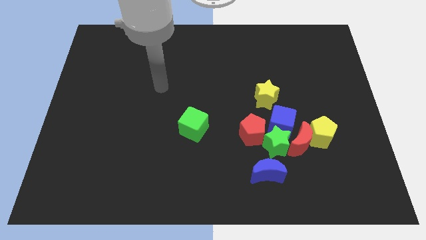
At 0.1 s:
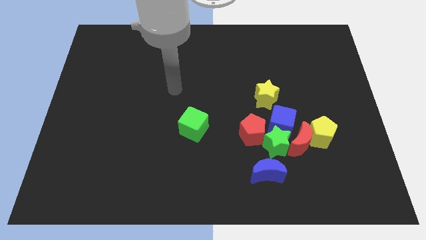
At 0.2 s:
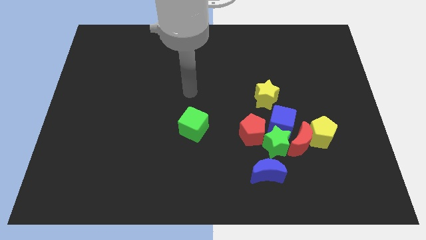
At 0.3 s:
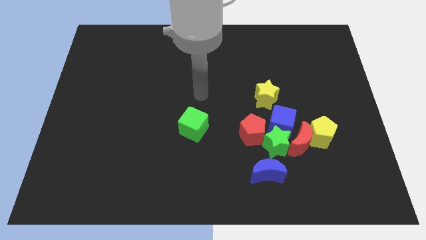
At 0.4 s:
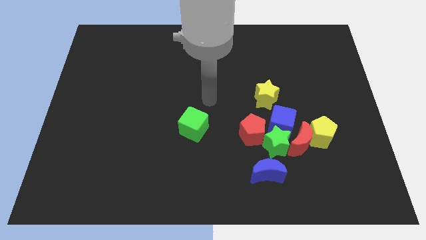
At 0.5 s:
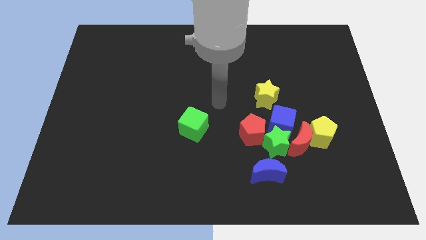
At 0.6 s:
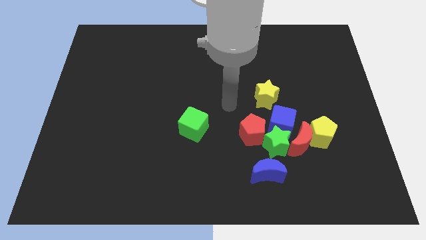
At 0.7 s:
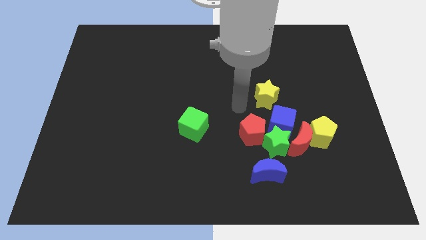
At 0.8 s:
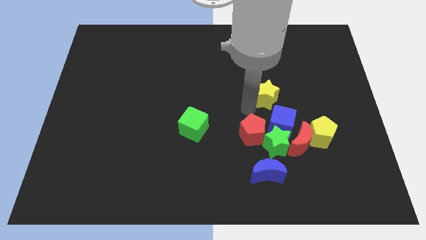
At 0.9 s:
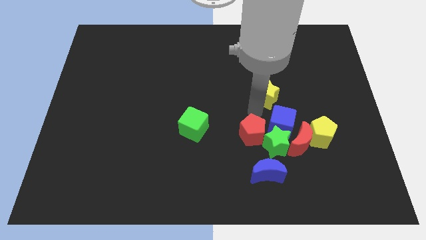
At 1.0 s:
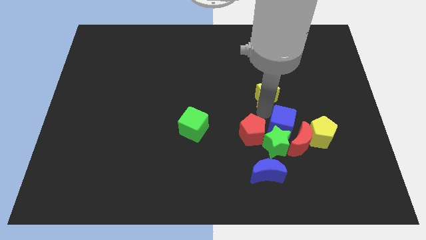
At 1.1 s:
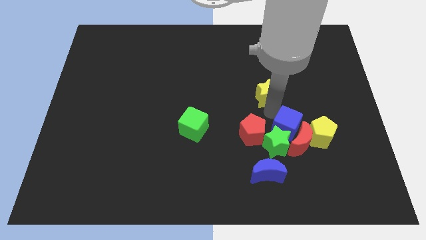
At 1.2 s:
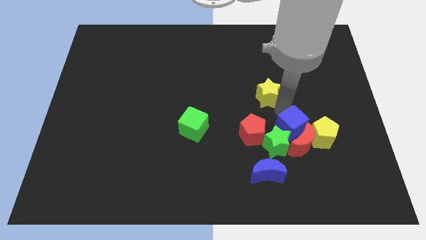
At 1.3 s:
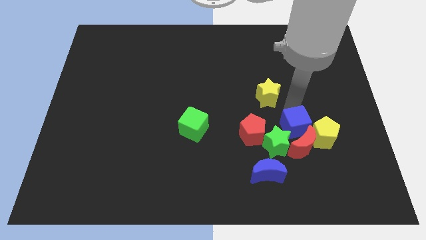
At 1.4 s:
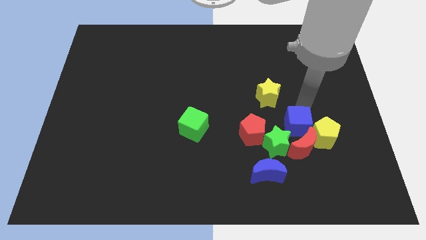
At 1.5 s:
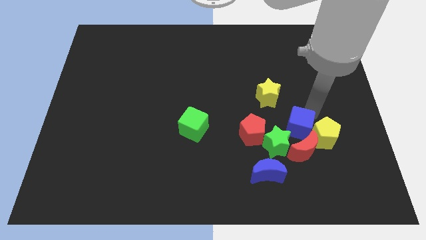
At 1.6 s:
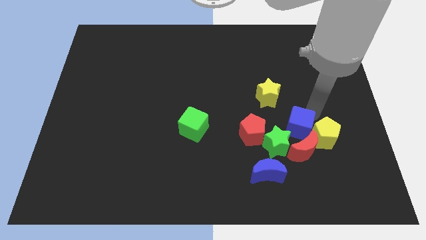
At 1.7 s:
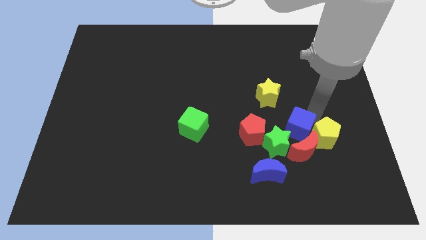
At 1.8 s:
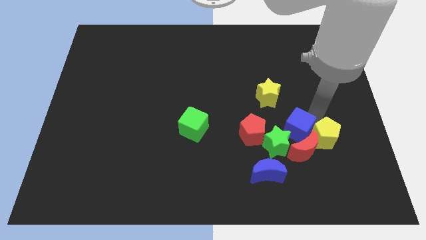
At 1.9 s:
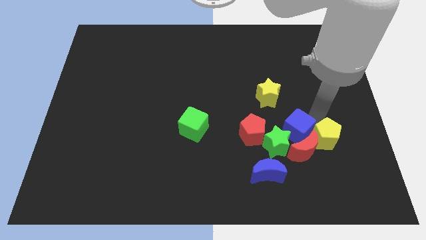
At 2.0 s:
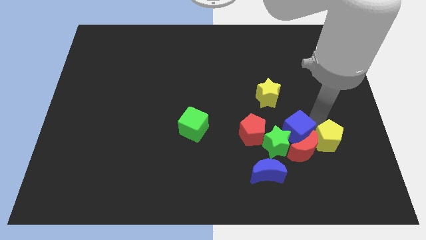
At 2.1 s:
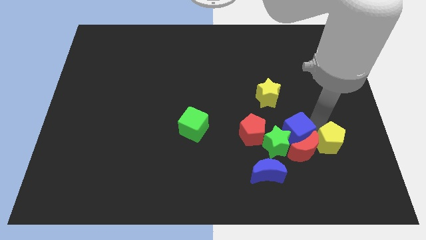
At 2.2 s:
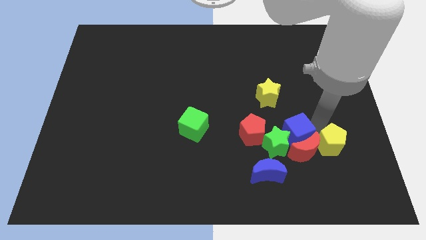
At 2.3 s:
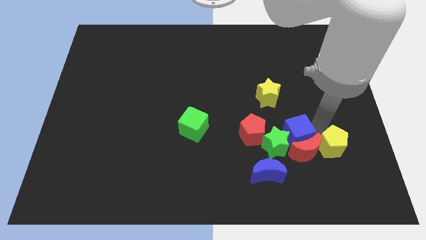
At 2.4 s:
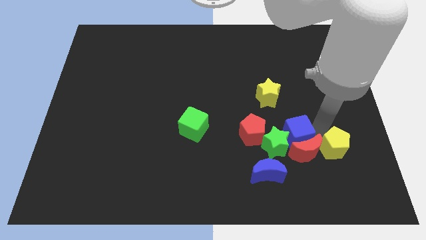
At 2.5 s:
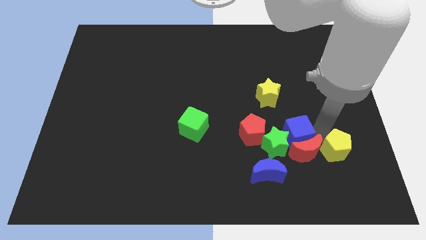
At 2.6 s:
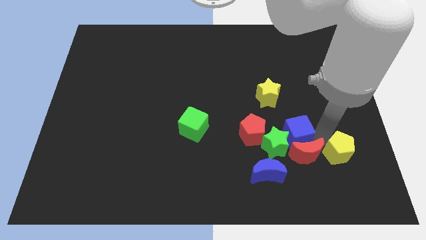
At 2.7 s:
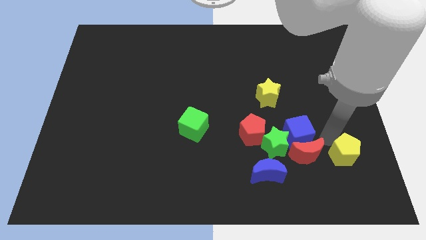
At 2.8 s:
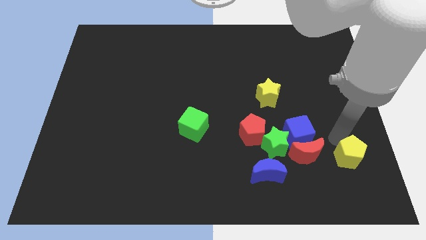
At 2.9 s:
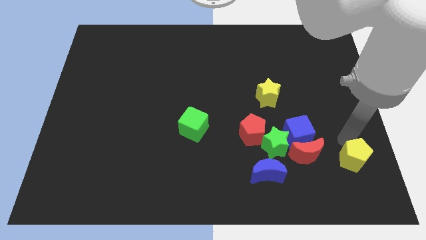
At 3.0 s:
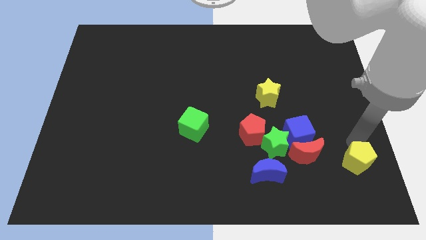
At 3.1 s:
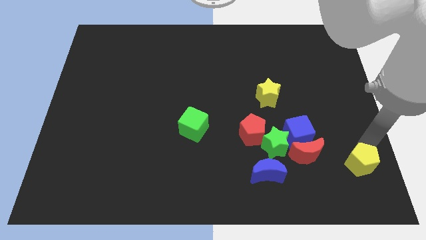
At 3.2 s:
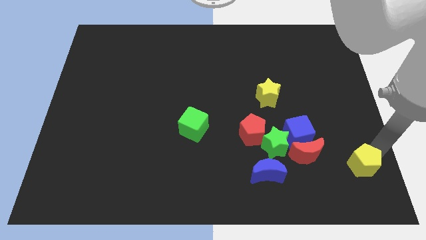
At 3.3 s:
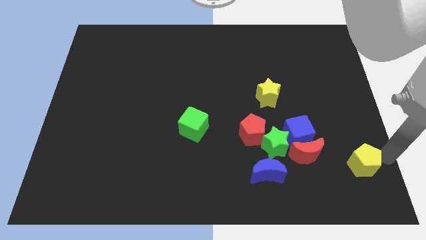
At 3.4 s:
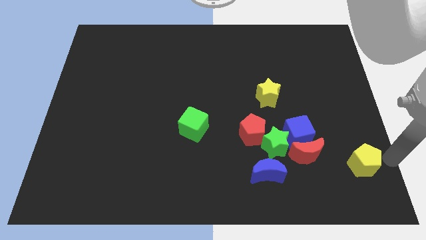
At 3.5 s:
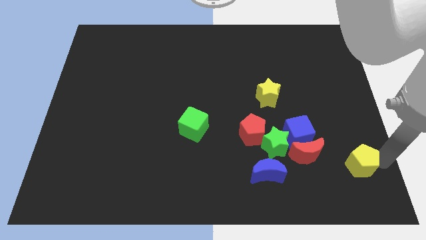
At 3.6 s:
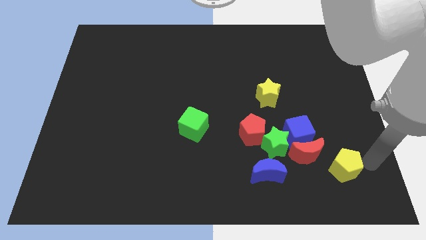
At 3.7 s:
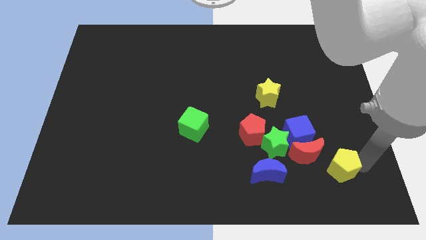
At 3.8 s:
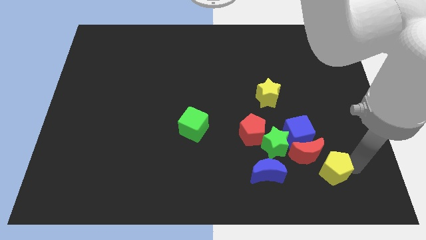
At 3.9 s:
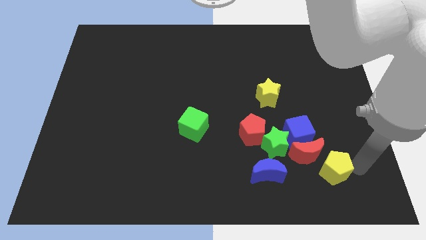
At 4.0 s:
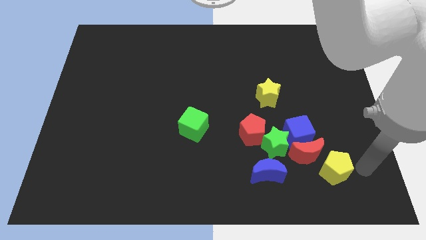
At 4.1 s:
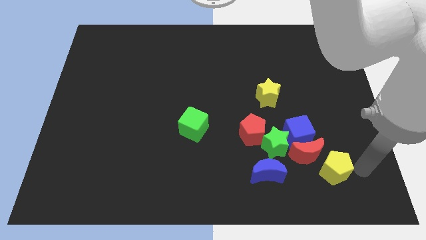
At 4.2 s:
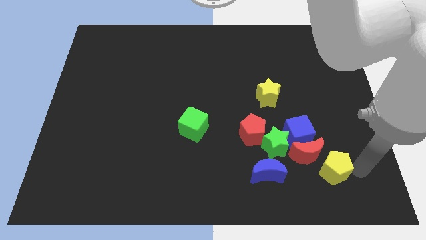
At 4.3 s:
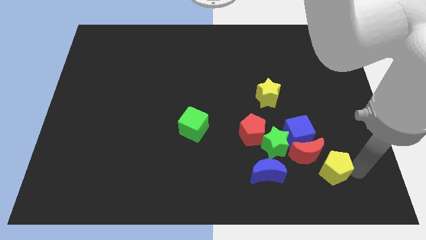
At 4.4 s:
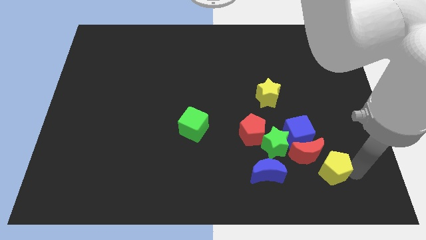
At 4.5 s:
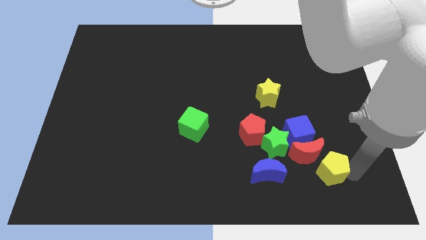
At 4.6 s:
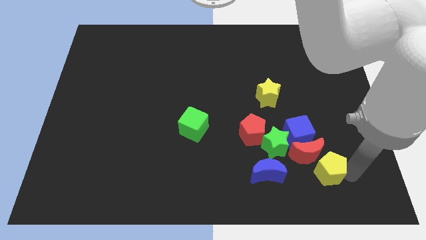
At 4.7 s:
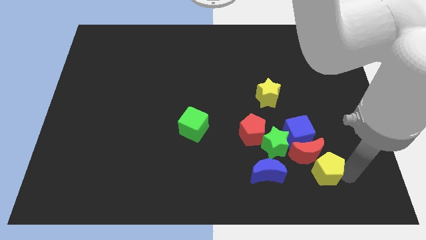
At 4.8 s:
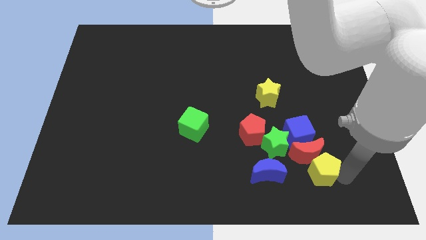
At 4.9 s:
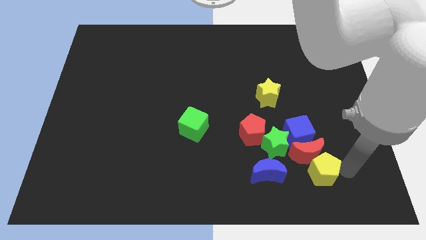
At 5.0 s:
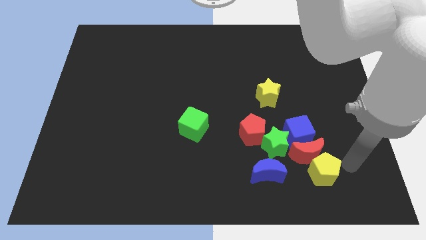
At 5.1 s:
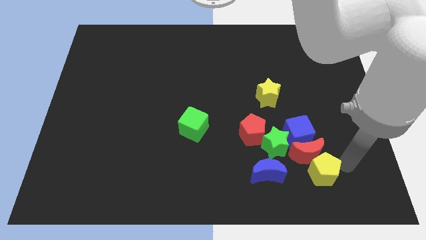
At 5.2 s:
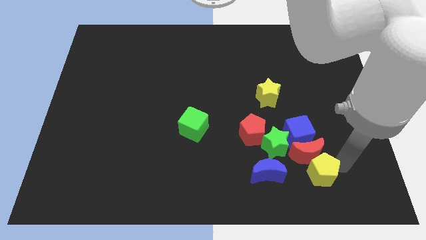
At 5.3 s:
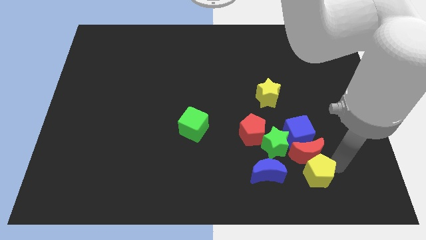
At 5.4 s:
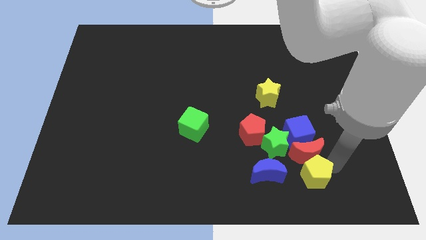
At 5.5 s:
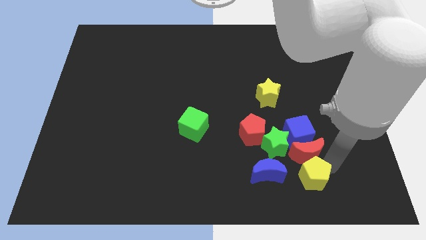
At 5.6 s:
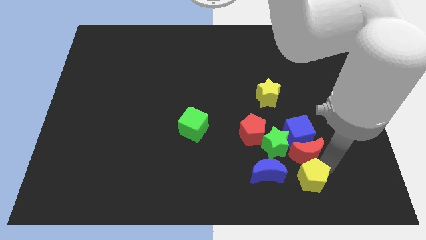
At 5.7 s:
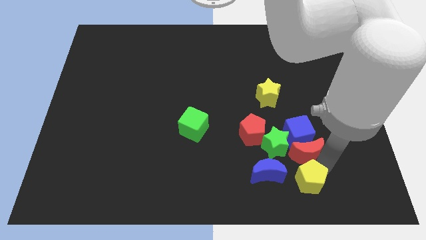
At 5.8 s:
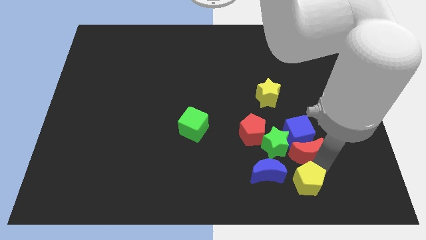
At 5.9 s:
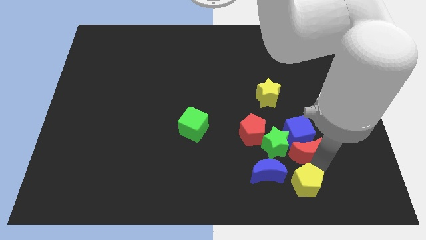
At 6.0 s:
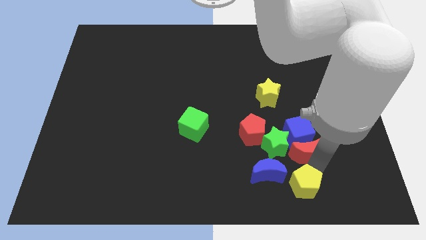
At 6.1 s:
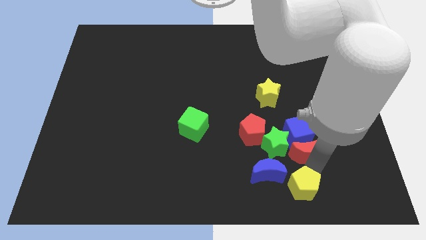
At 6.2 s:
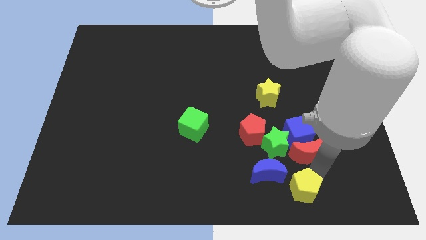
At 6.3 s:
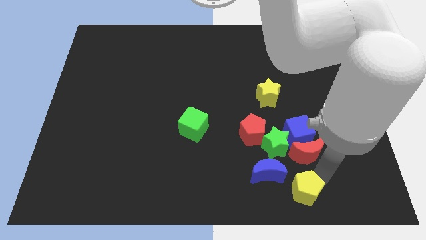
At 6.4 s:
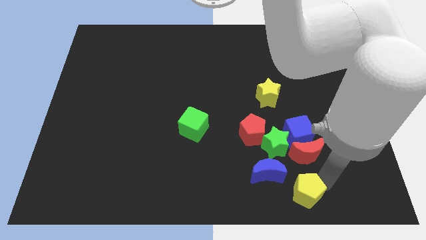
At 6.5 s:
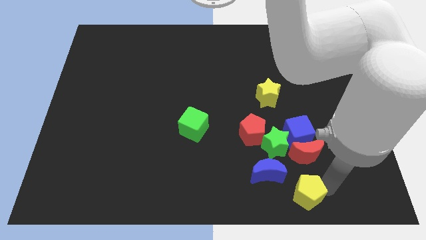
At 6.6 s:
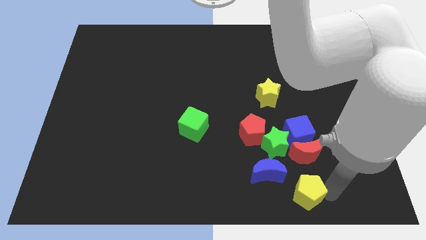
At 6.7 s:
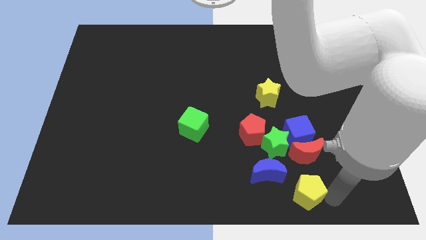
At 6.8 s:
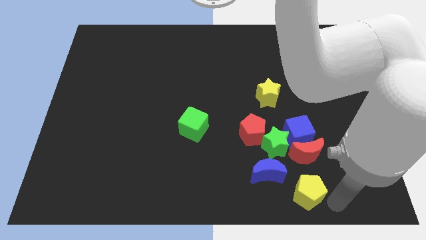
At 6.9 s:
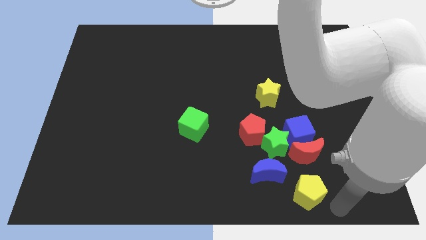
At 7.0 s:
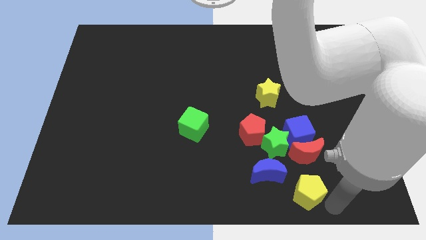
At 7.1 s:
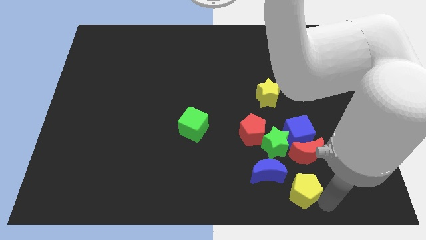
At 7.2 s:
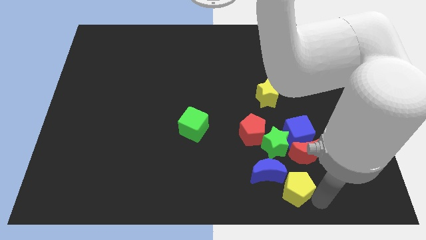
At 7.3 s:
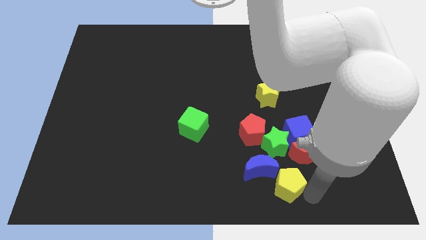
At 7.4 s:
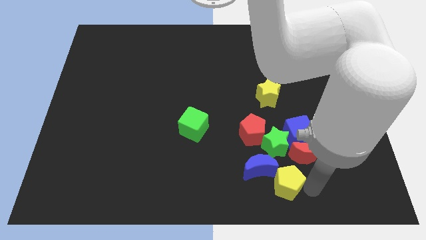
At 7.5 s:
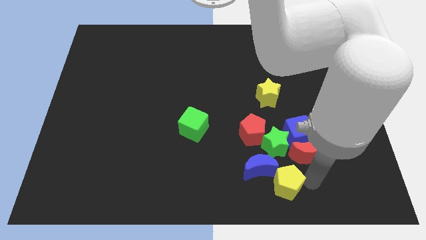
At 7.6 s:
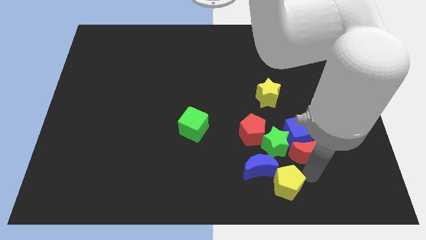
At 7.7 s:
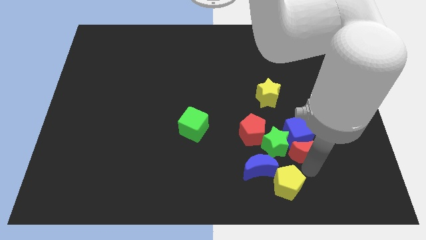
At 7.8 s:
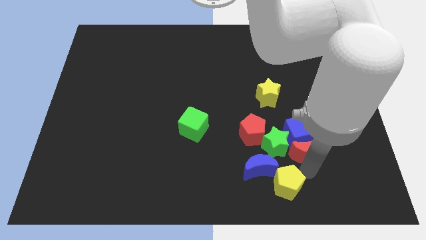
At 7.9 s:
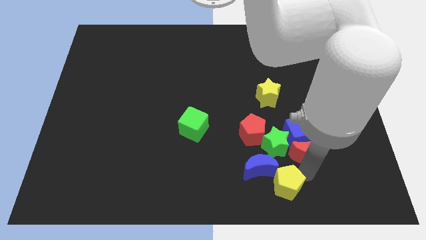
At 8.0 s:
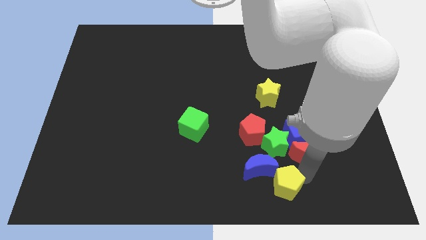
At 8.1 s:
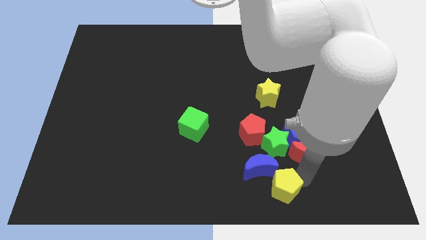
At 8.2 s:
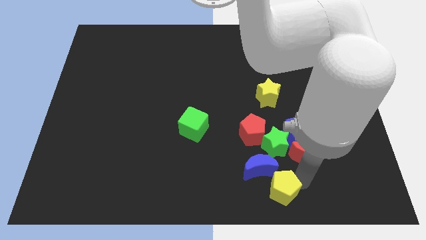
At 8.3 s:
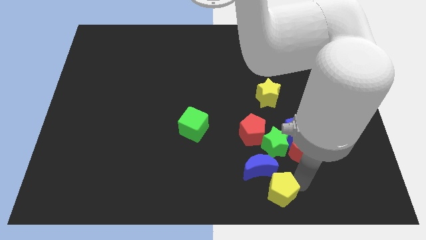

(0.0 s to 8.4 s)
slide the yellow pentagon to the bottom
